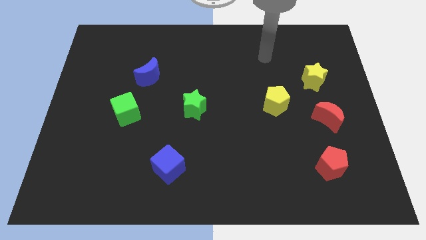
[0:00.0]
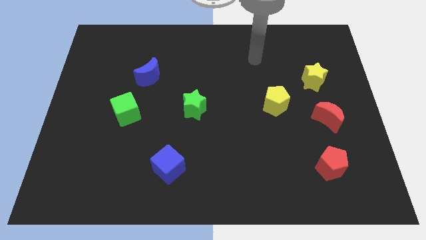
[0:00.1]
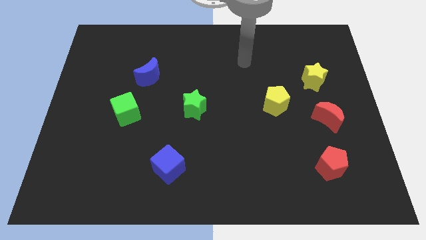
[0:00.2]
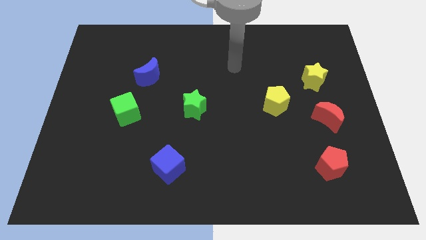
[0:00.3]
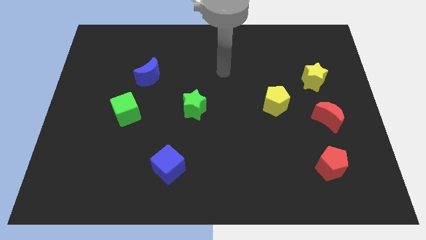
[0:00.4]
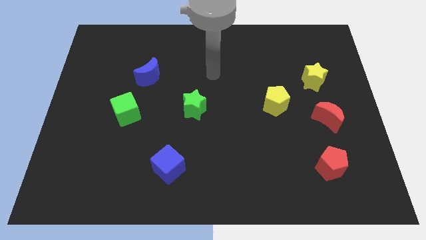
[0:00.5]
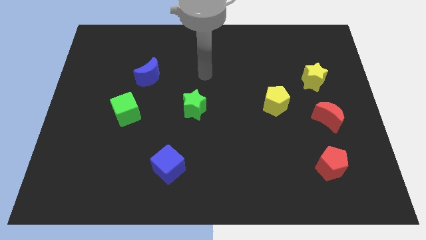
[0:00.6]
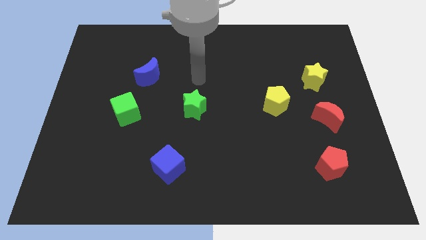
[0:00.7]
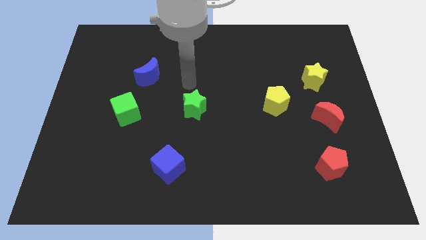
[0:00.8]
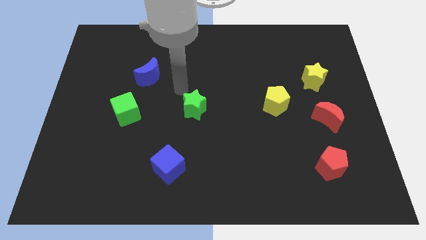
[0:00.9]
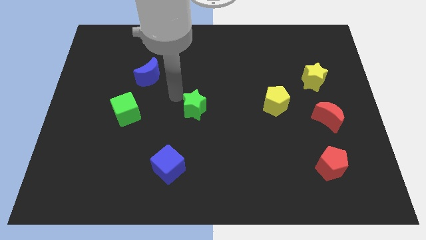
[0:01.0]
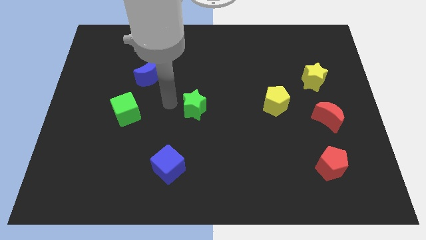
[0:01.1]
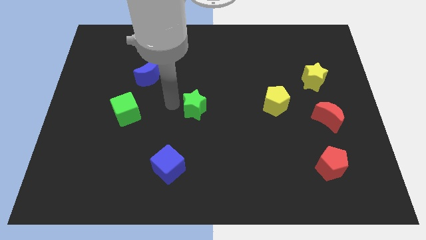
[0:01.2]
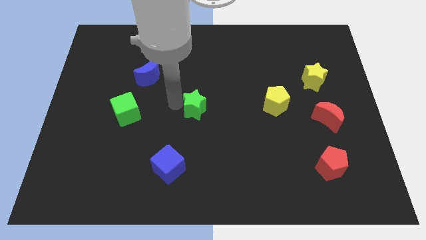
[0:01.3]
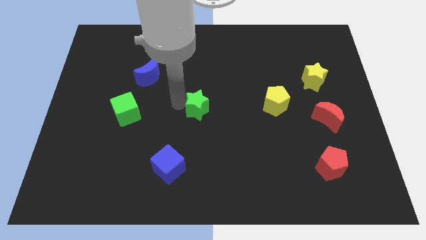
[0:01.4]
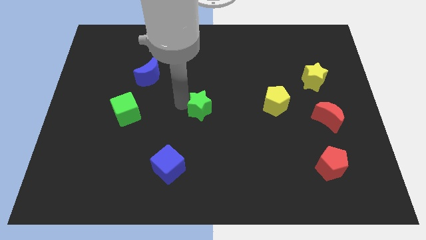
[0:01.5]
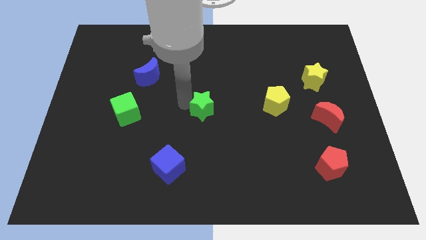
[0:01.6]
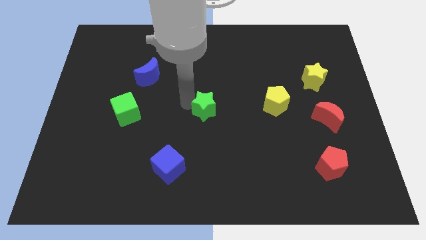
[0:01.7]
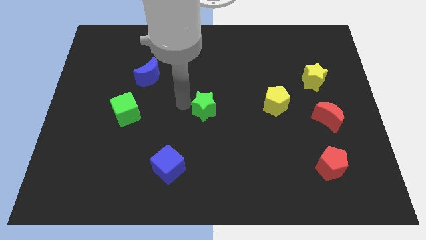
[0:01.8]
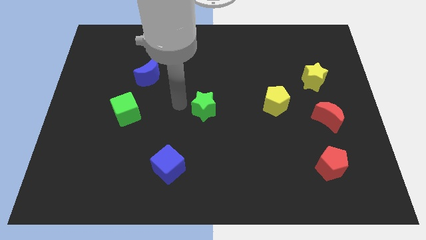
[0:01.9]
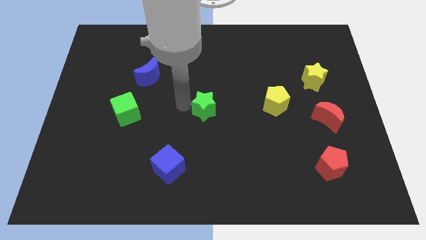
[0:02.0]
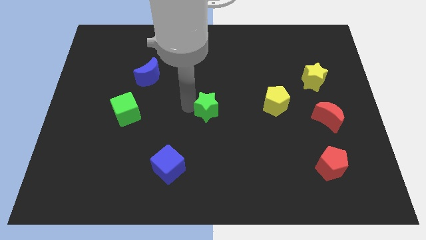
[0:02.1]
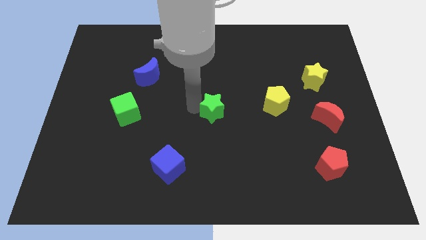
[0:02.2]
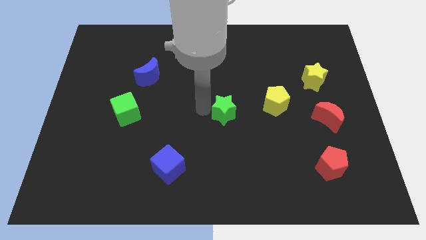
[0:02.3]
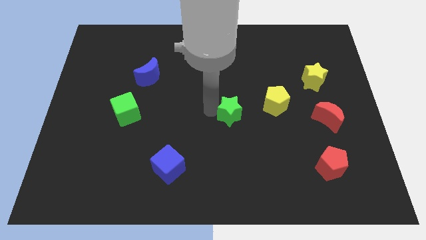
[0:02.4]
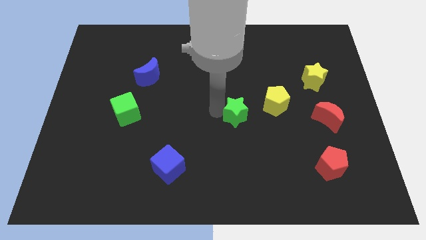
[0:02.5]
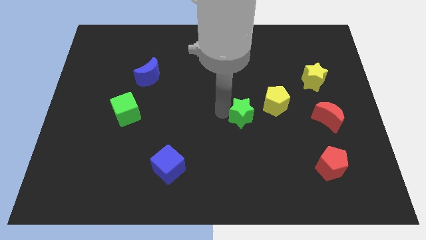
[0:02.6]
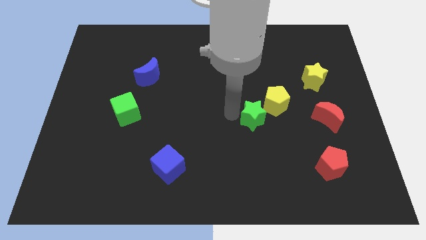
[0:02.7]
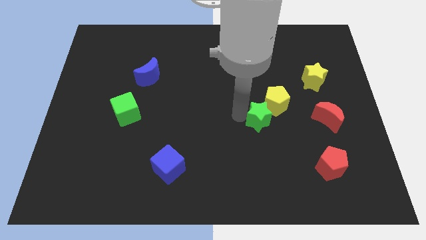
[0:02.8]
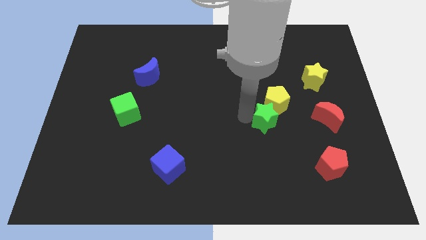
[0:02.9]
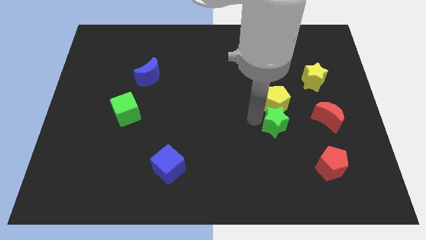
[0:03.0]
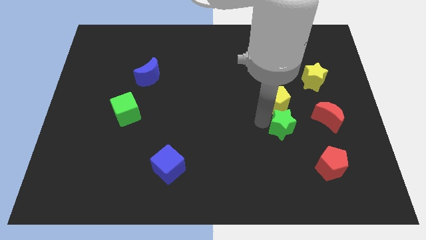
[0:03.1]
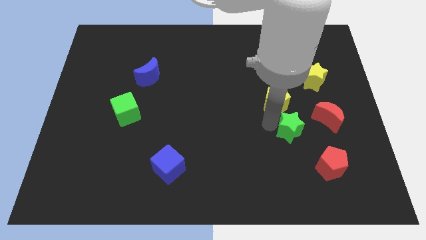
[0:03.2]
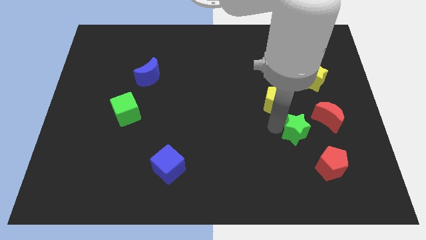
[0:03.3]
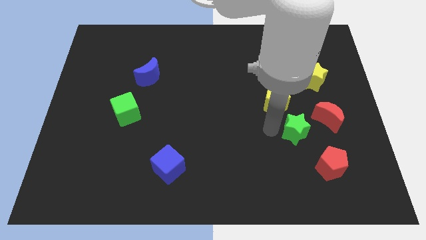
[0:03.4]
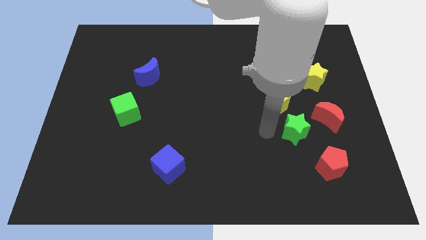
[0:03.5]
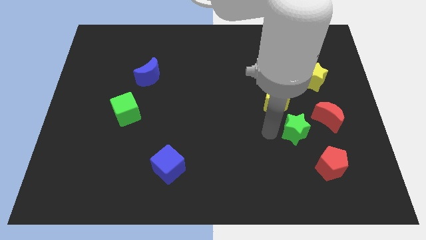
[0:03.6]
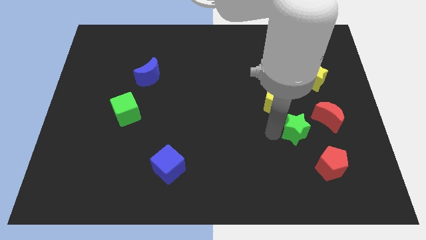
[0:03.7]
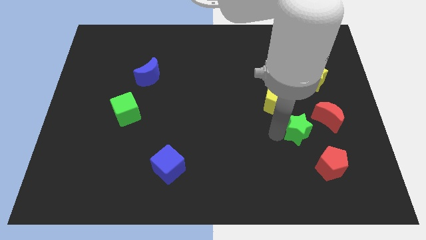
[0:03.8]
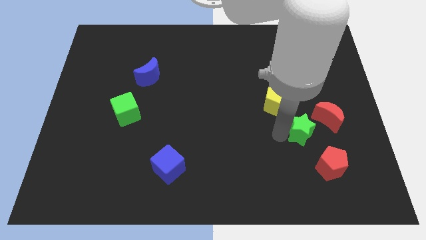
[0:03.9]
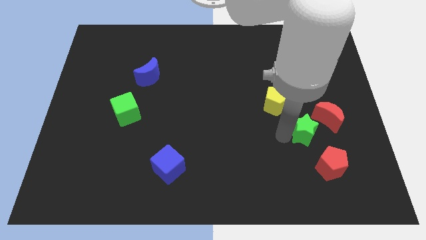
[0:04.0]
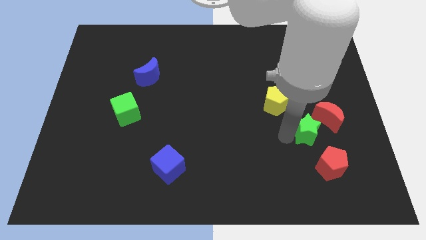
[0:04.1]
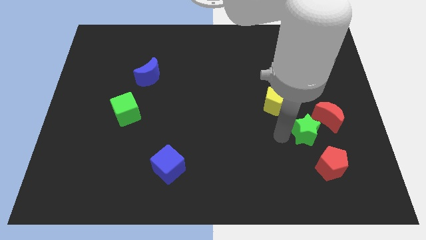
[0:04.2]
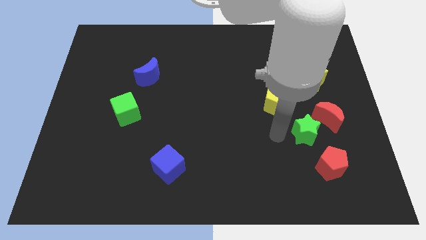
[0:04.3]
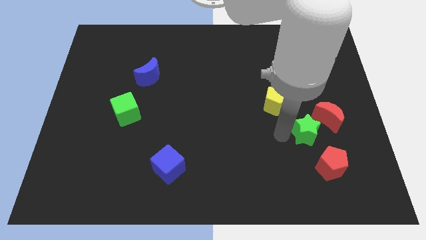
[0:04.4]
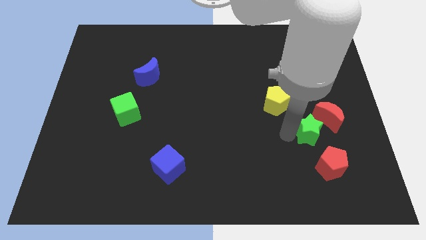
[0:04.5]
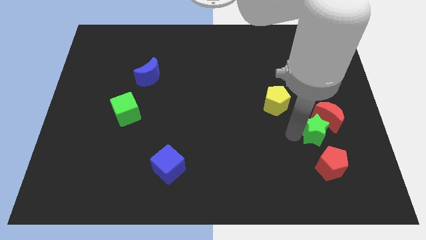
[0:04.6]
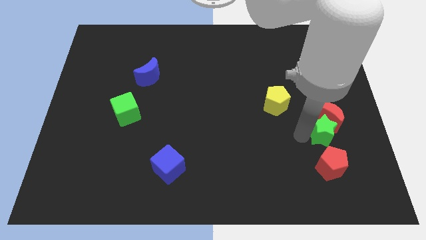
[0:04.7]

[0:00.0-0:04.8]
push the green star to the bottom side of the yellow star

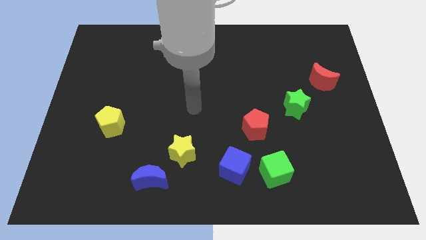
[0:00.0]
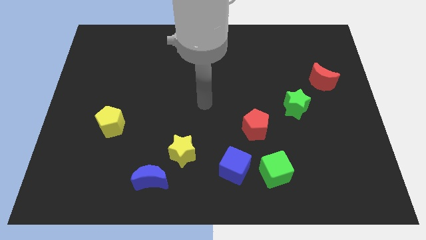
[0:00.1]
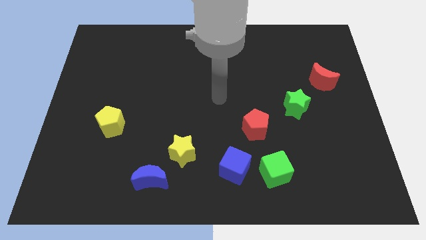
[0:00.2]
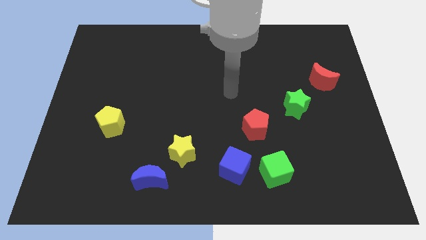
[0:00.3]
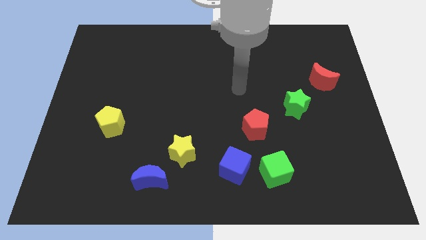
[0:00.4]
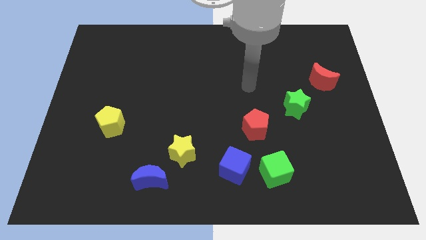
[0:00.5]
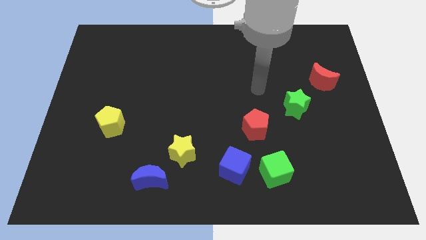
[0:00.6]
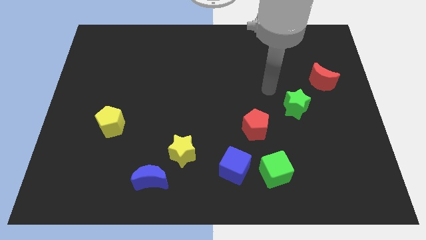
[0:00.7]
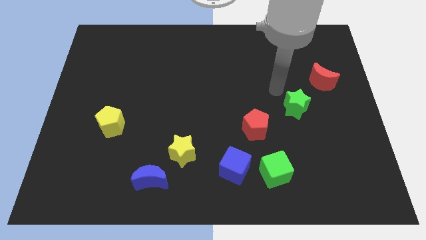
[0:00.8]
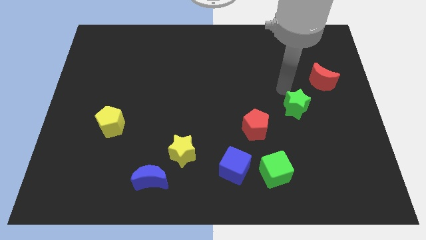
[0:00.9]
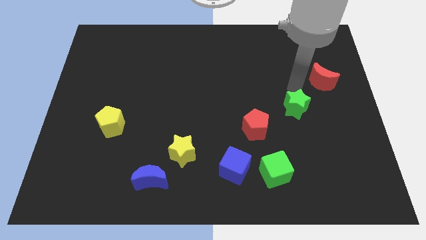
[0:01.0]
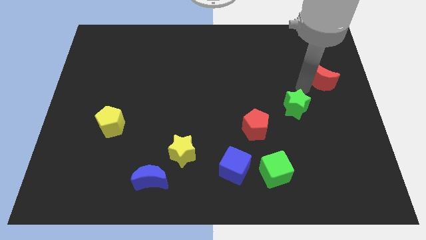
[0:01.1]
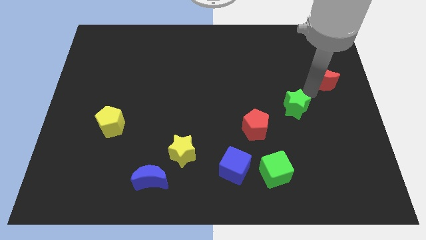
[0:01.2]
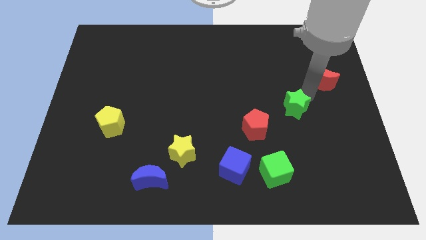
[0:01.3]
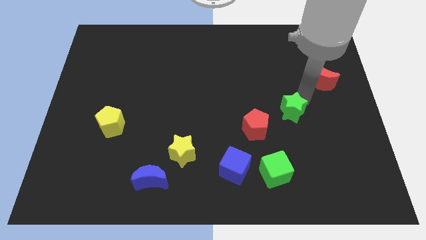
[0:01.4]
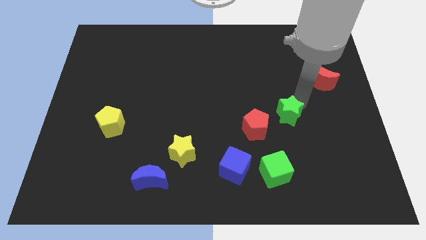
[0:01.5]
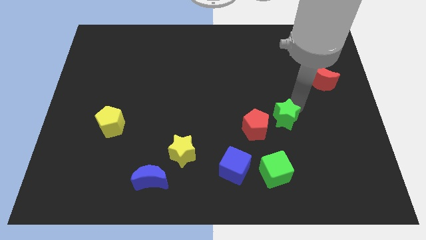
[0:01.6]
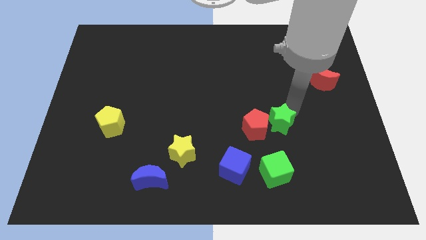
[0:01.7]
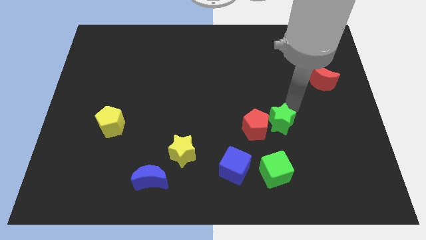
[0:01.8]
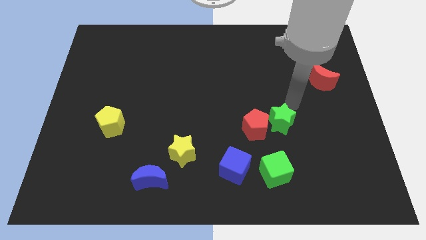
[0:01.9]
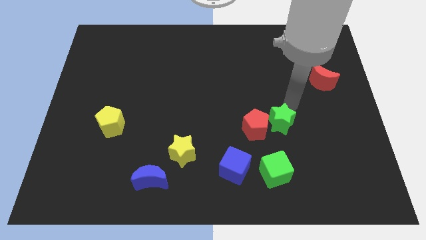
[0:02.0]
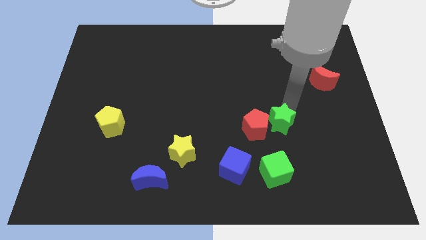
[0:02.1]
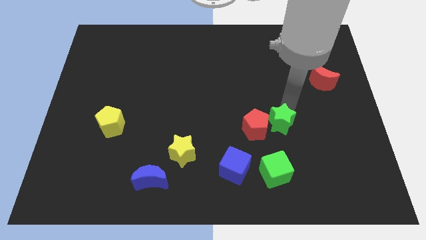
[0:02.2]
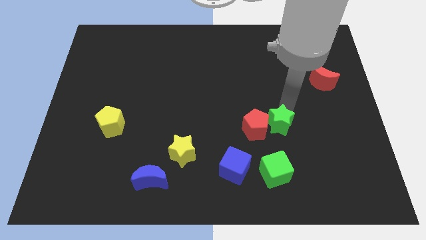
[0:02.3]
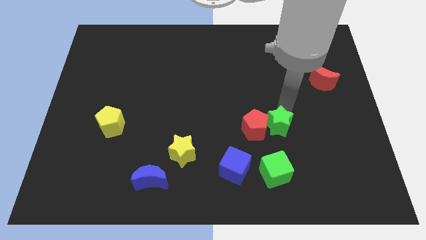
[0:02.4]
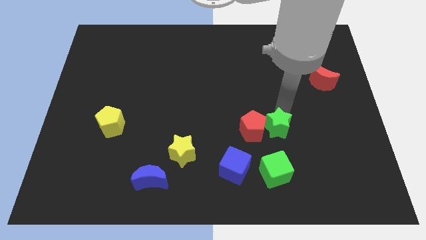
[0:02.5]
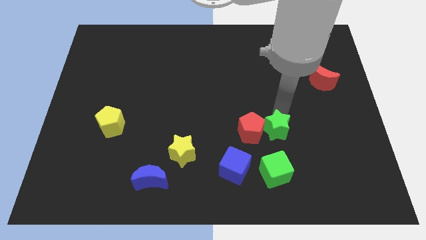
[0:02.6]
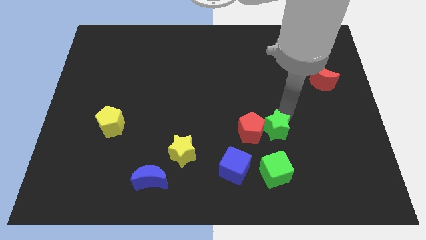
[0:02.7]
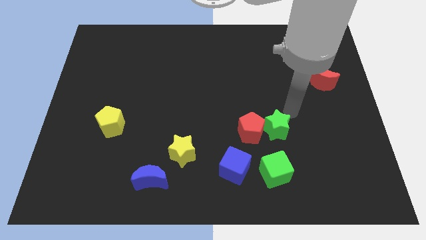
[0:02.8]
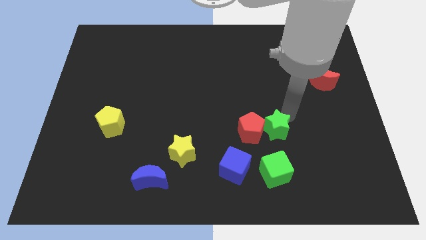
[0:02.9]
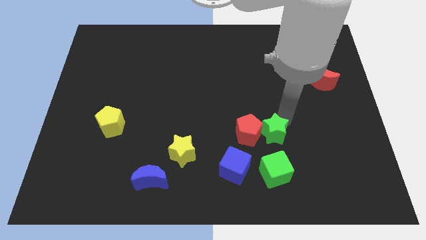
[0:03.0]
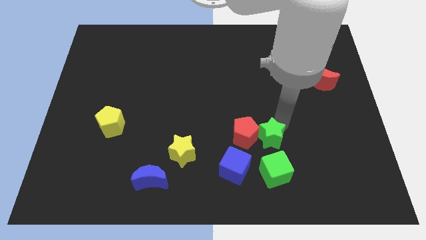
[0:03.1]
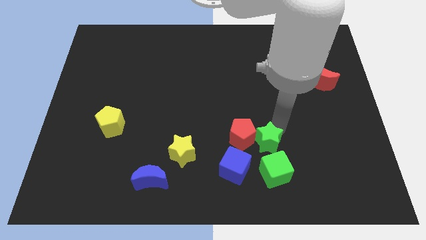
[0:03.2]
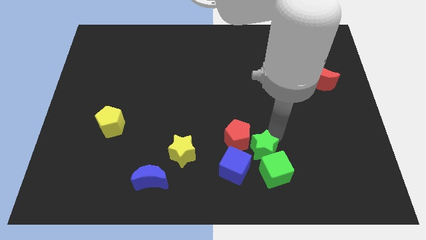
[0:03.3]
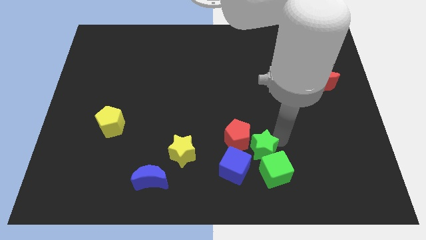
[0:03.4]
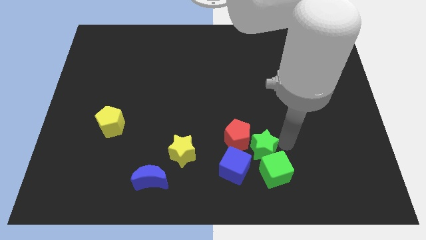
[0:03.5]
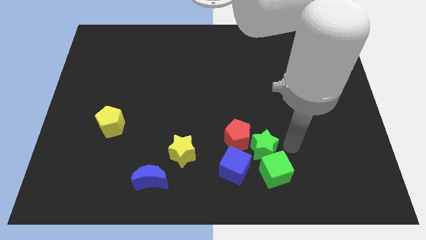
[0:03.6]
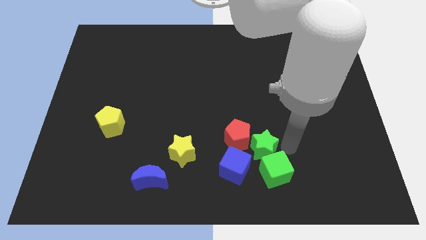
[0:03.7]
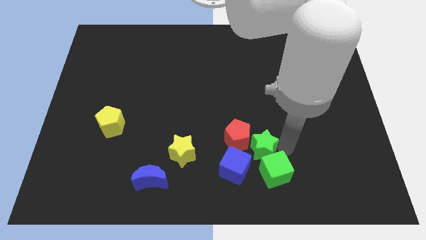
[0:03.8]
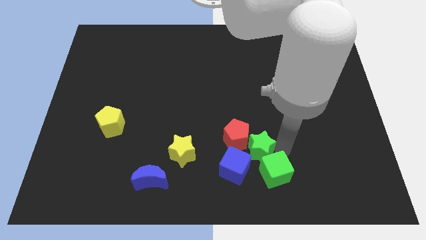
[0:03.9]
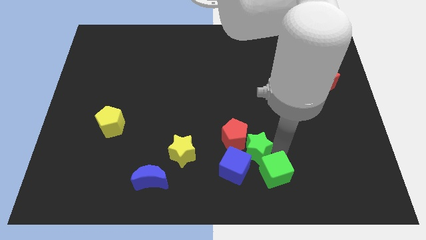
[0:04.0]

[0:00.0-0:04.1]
push the green star to the right side of the yellow star
